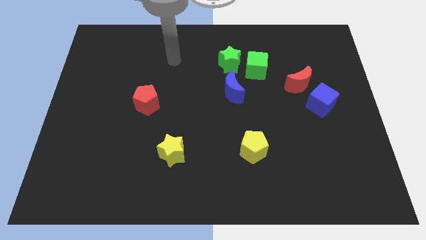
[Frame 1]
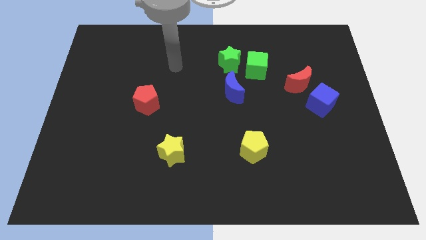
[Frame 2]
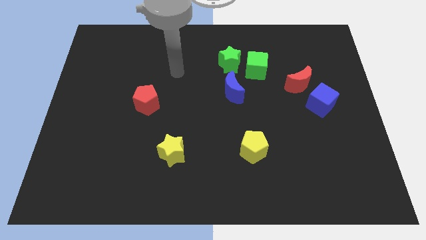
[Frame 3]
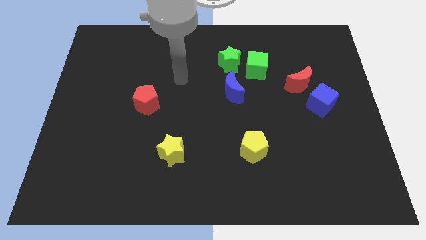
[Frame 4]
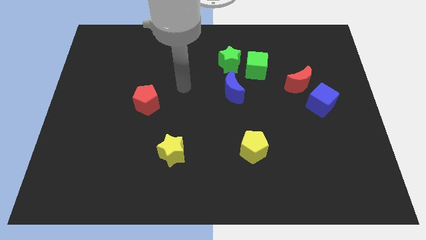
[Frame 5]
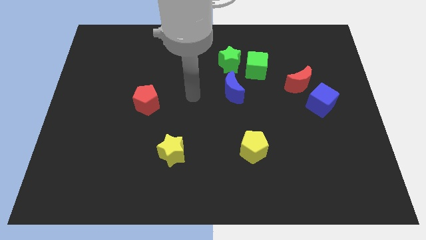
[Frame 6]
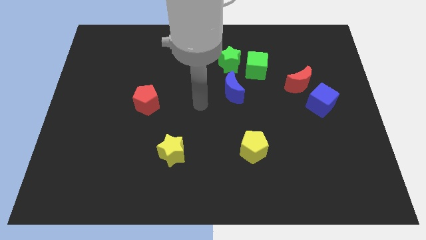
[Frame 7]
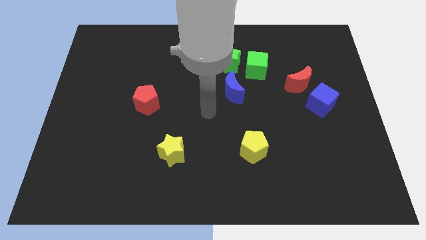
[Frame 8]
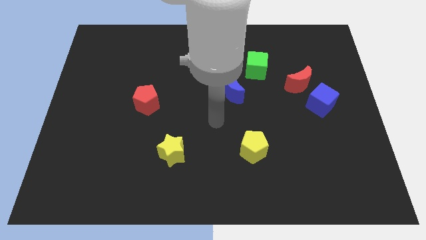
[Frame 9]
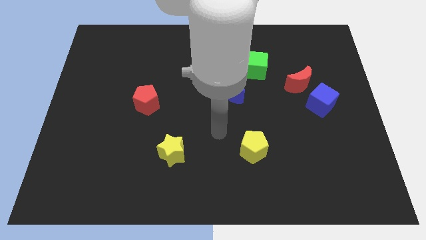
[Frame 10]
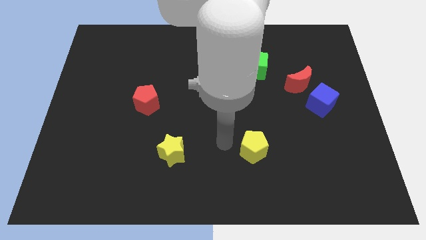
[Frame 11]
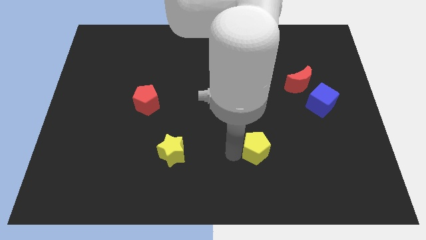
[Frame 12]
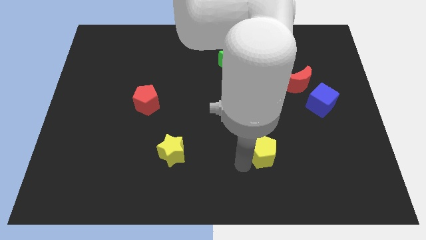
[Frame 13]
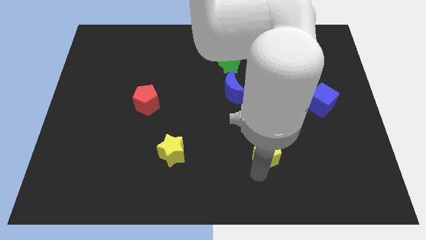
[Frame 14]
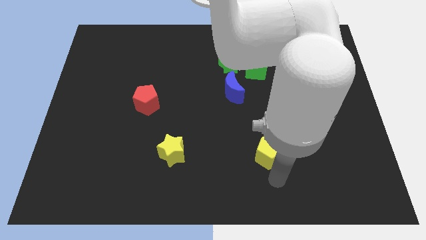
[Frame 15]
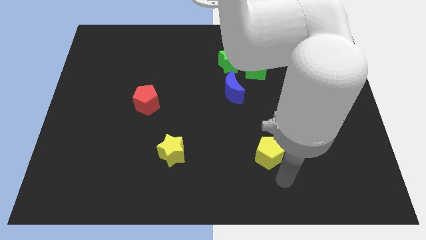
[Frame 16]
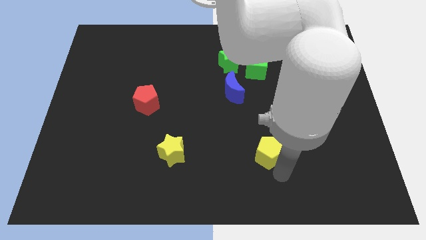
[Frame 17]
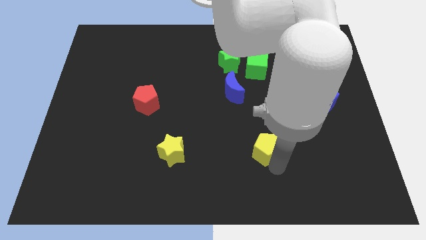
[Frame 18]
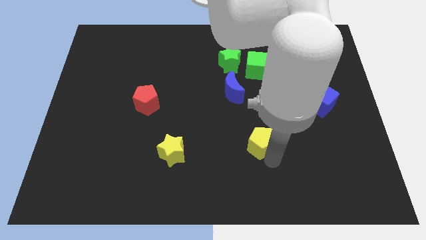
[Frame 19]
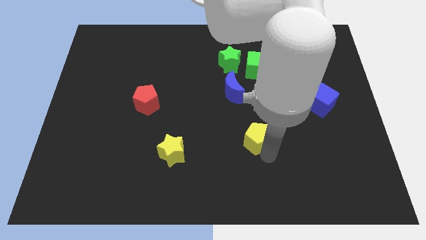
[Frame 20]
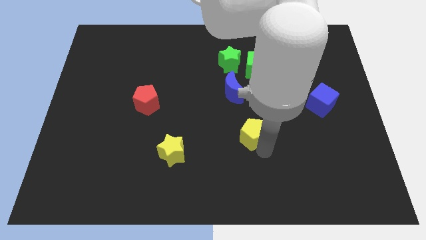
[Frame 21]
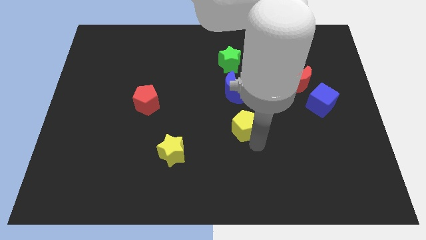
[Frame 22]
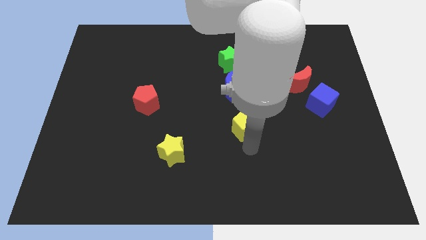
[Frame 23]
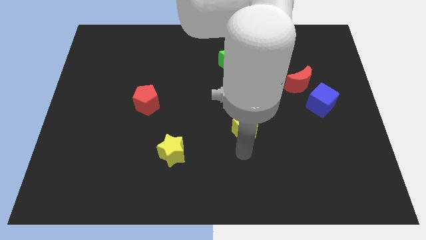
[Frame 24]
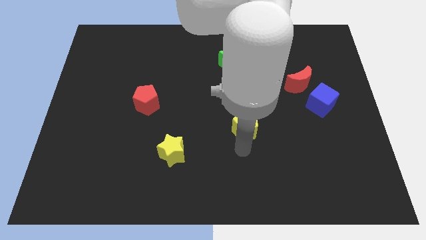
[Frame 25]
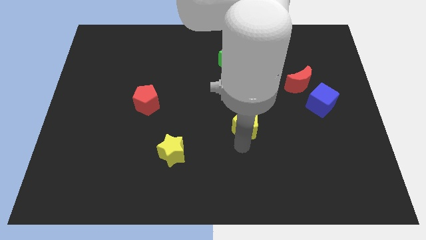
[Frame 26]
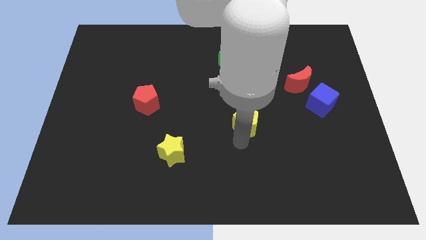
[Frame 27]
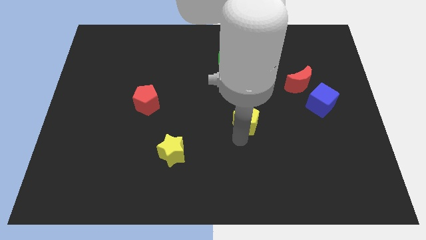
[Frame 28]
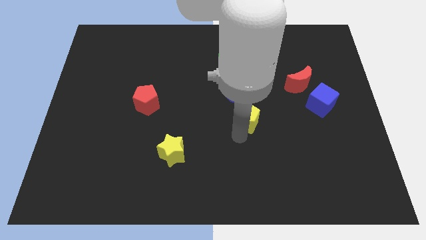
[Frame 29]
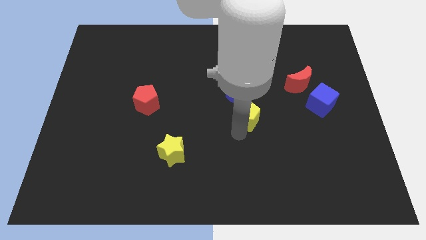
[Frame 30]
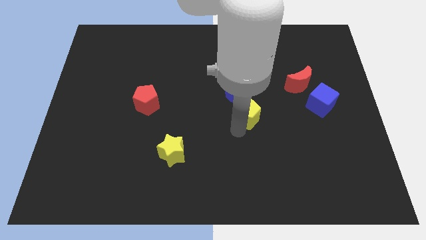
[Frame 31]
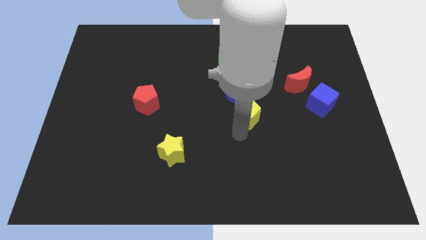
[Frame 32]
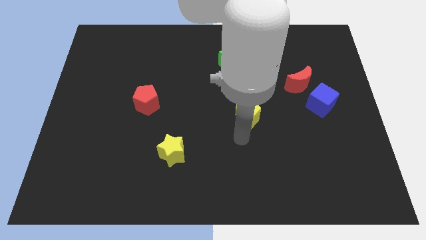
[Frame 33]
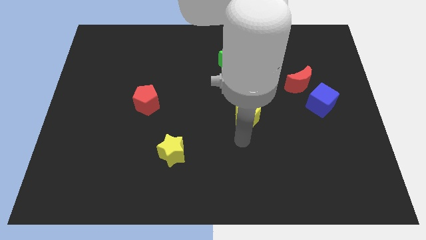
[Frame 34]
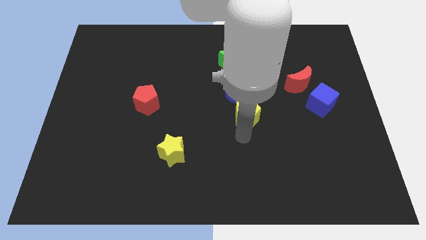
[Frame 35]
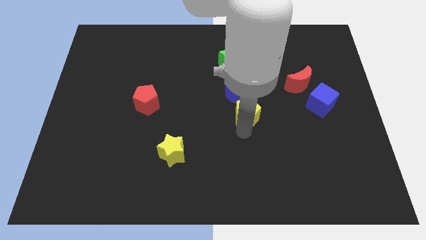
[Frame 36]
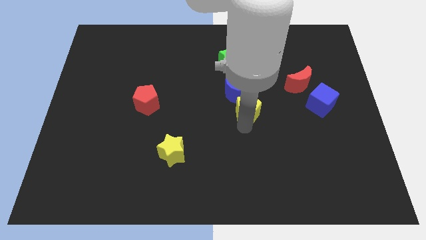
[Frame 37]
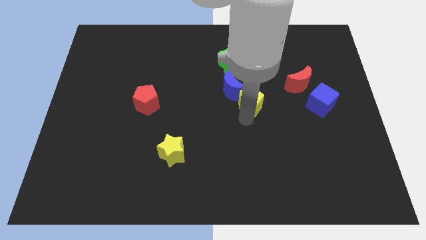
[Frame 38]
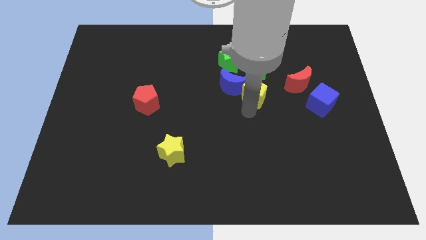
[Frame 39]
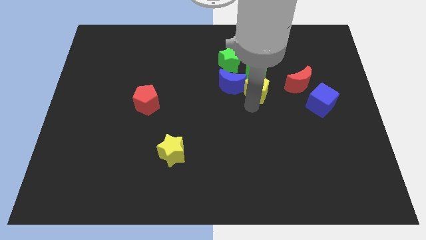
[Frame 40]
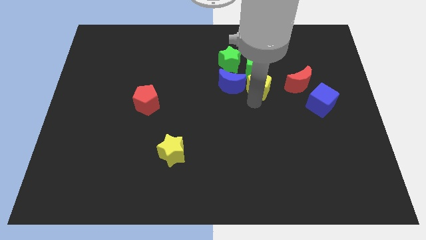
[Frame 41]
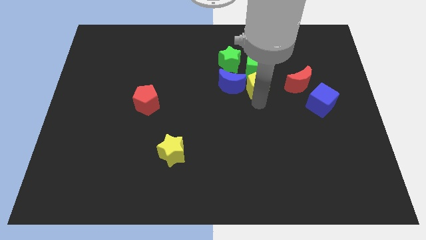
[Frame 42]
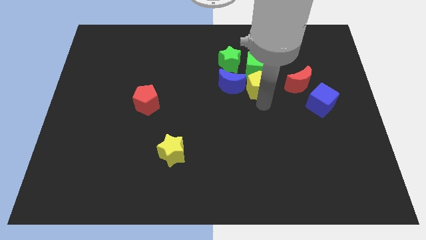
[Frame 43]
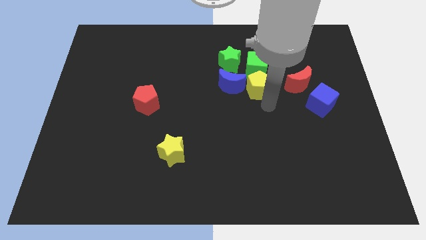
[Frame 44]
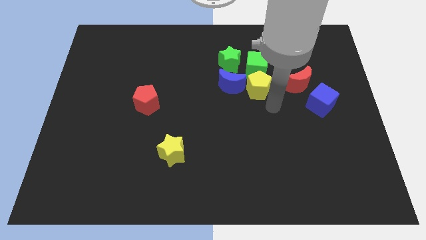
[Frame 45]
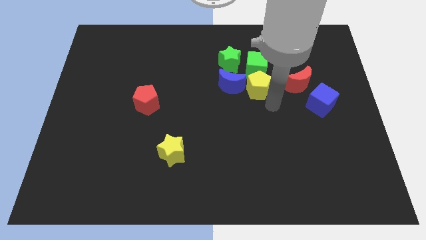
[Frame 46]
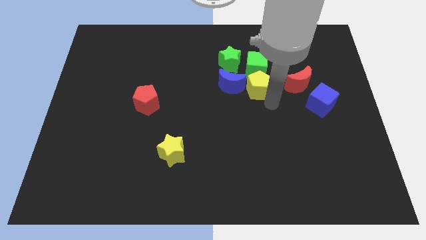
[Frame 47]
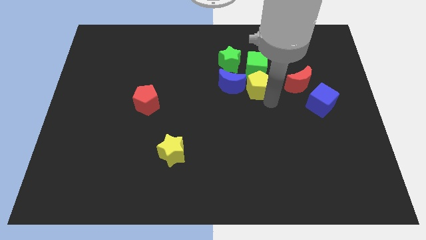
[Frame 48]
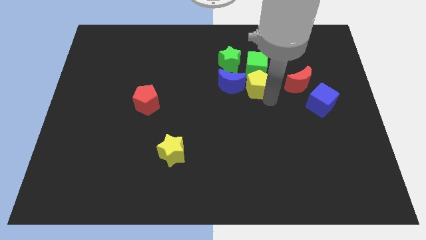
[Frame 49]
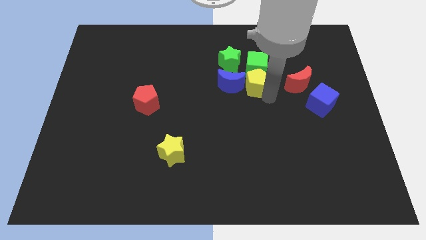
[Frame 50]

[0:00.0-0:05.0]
put the yellow pentagon close to the green cube

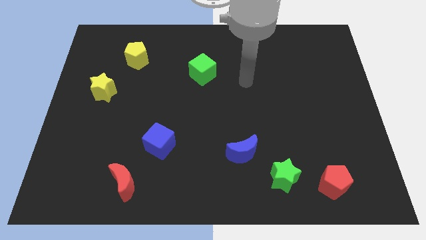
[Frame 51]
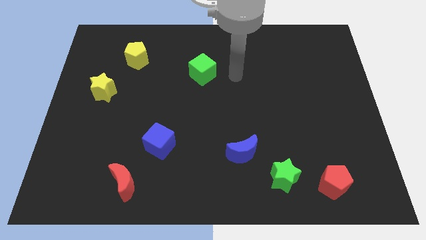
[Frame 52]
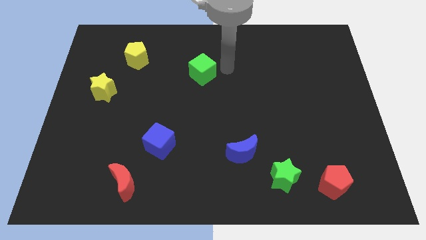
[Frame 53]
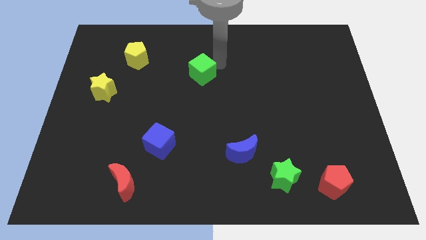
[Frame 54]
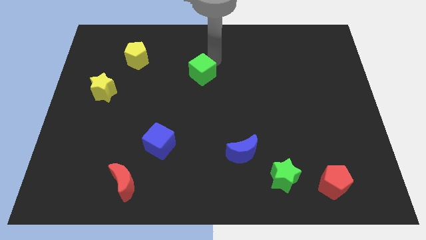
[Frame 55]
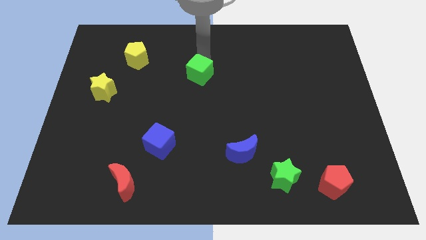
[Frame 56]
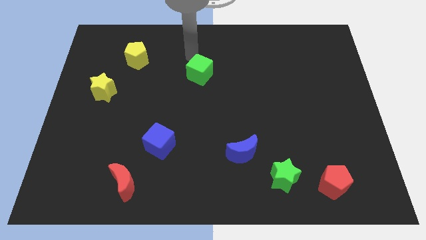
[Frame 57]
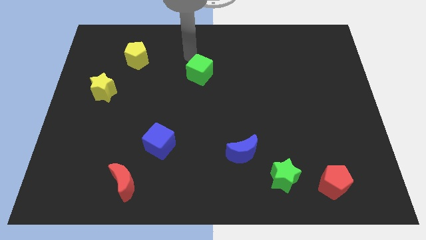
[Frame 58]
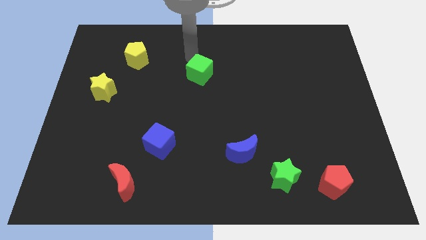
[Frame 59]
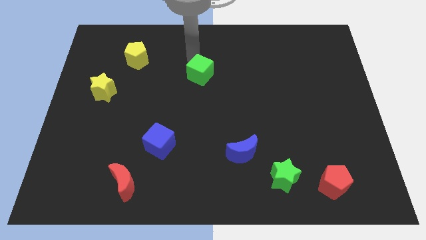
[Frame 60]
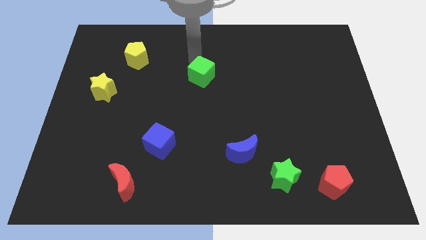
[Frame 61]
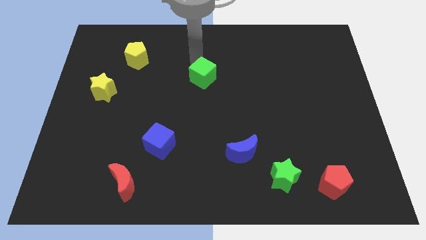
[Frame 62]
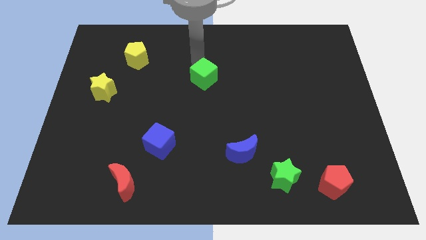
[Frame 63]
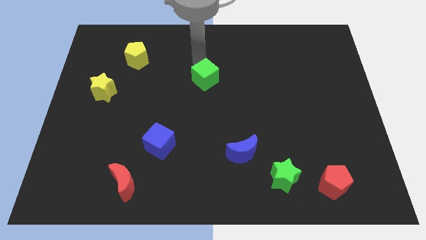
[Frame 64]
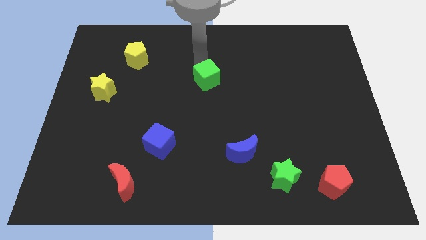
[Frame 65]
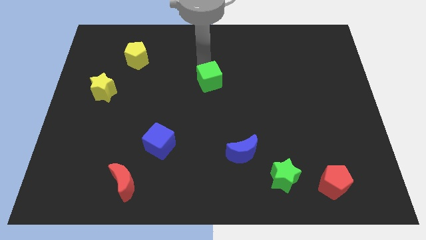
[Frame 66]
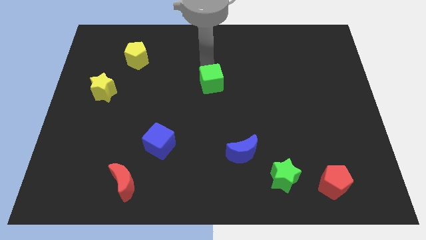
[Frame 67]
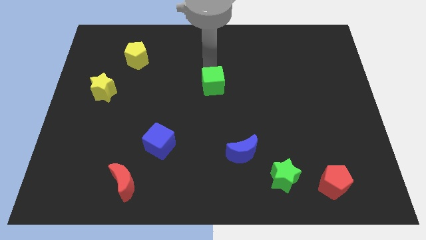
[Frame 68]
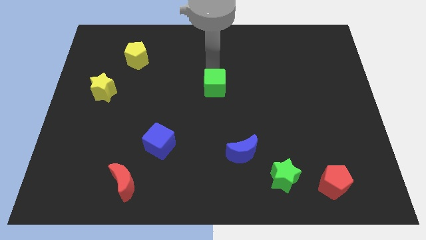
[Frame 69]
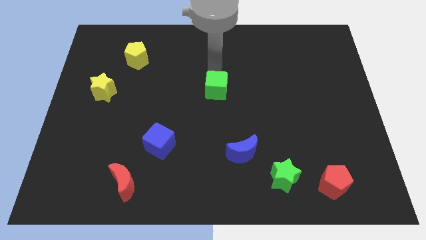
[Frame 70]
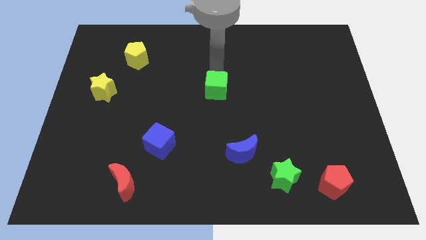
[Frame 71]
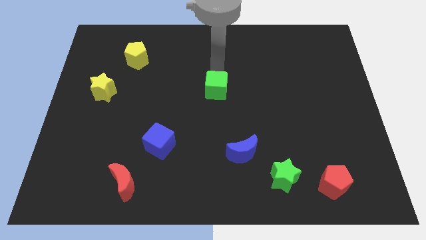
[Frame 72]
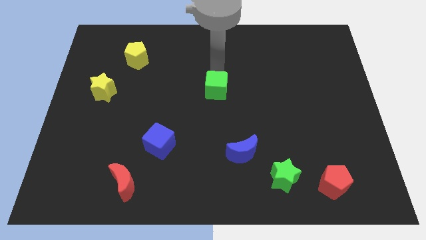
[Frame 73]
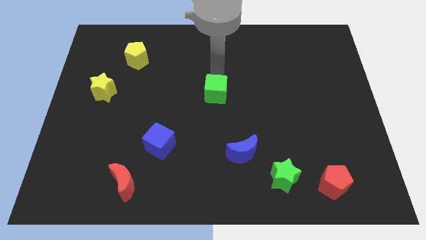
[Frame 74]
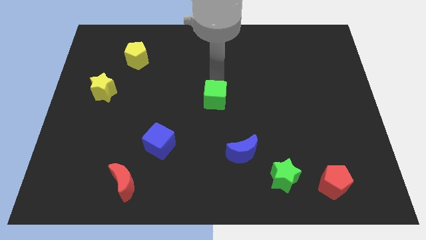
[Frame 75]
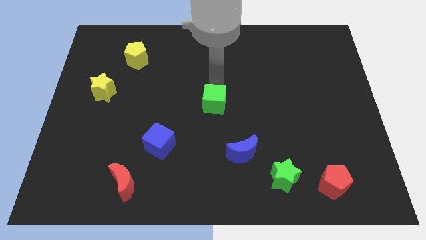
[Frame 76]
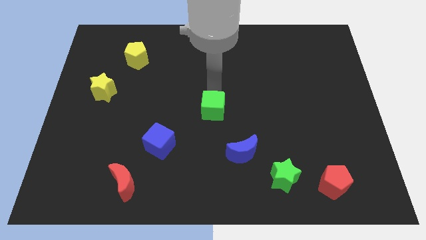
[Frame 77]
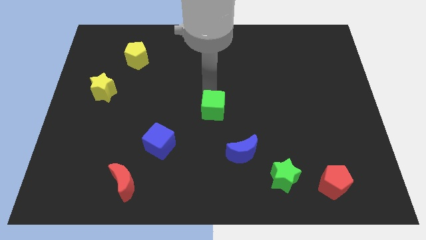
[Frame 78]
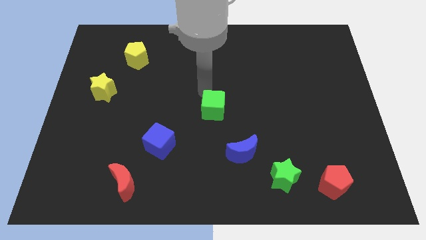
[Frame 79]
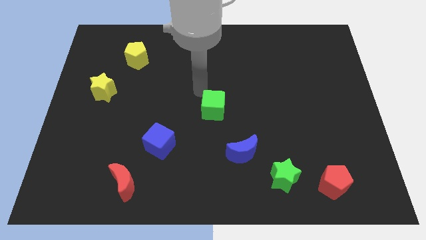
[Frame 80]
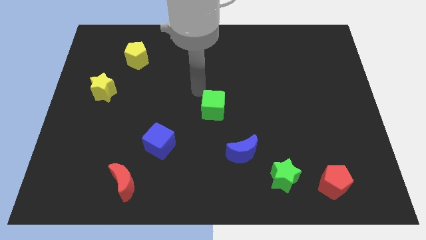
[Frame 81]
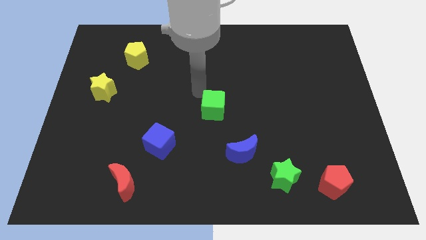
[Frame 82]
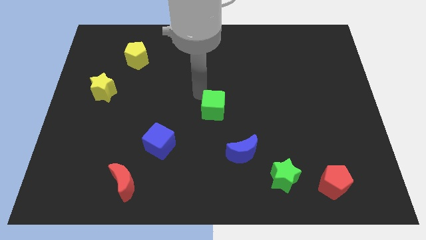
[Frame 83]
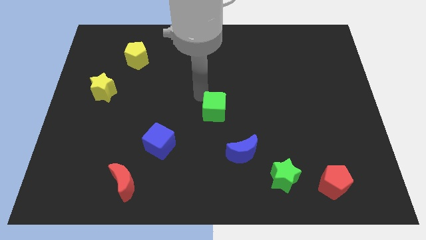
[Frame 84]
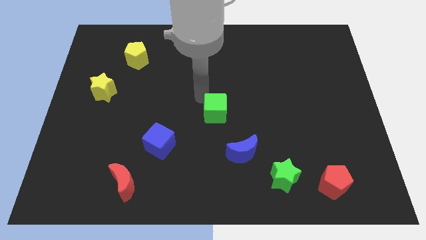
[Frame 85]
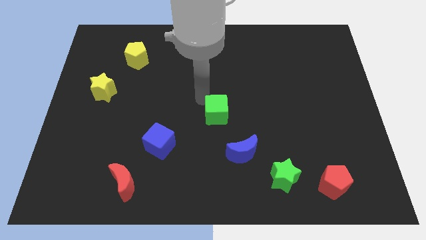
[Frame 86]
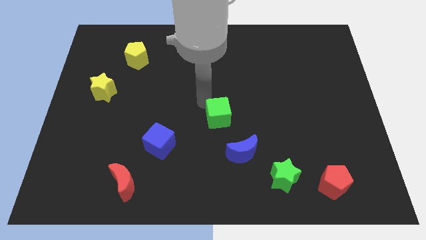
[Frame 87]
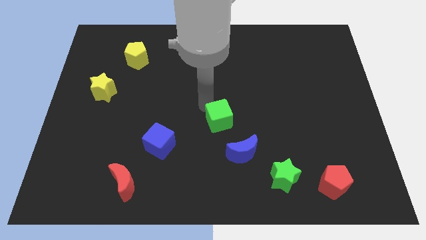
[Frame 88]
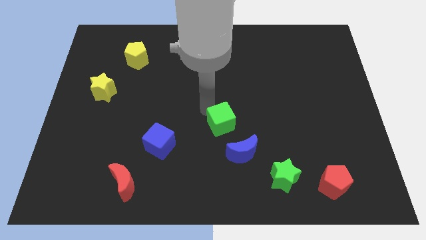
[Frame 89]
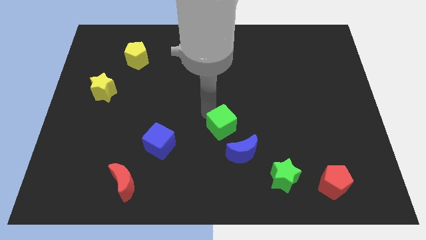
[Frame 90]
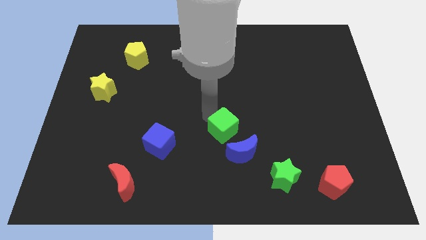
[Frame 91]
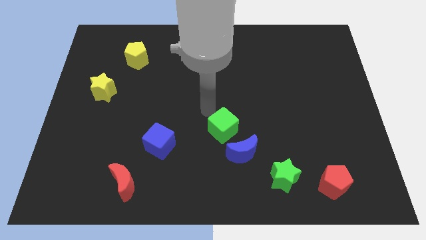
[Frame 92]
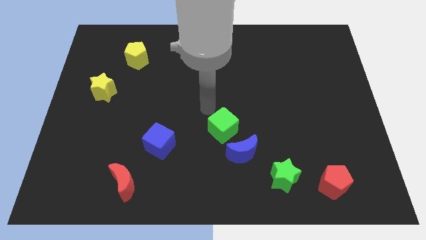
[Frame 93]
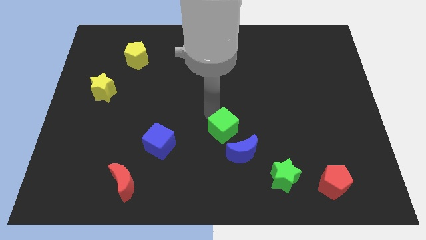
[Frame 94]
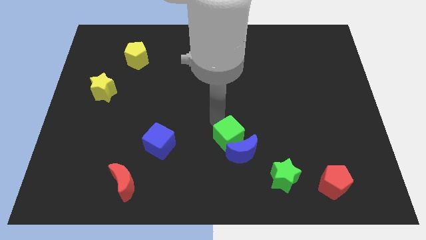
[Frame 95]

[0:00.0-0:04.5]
push the green cube close to the blue moon
